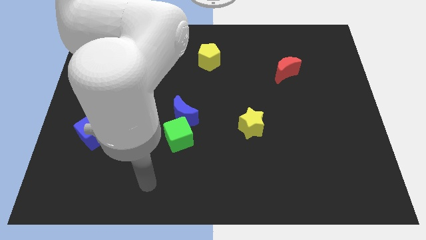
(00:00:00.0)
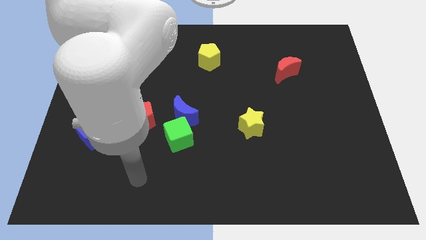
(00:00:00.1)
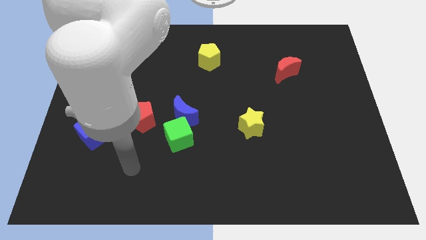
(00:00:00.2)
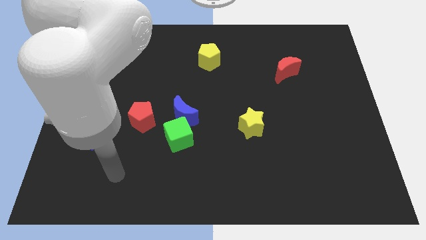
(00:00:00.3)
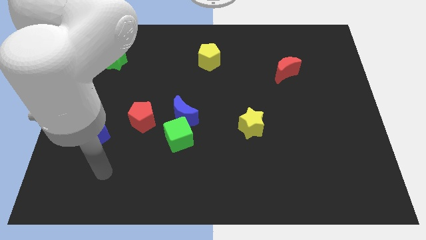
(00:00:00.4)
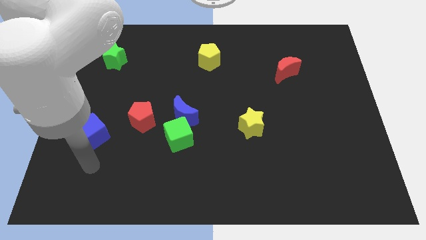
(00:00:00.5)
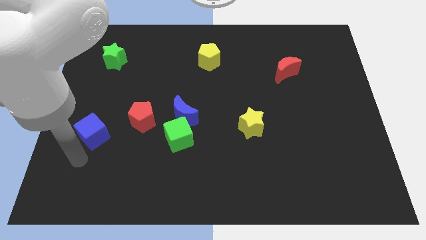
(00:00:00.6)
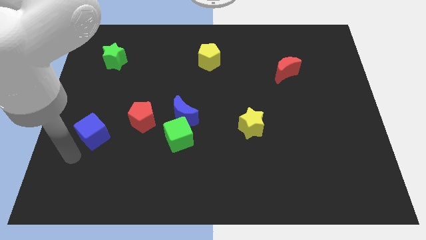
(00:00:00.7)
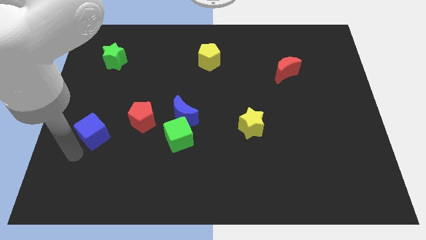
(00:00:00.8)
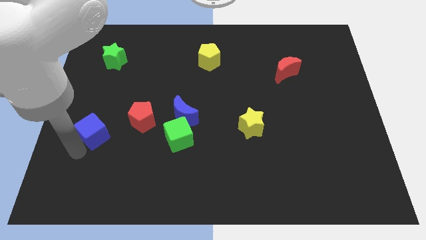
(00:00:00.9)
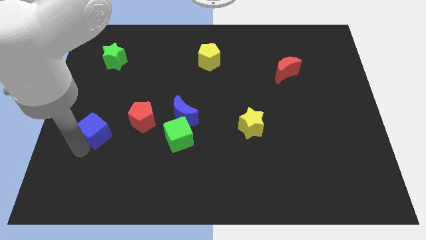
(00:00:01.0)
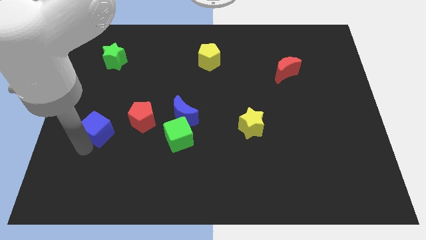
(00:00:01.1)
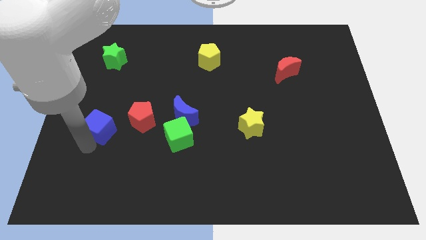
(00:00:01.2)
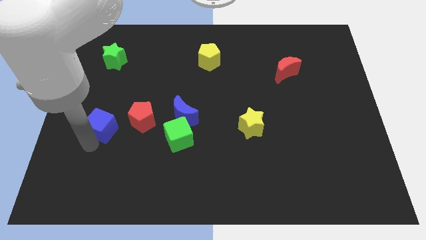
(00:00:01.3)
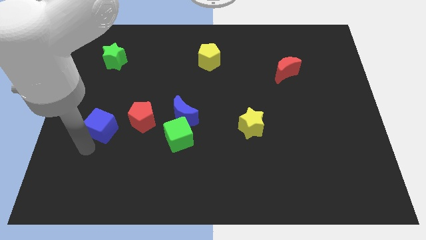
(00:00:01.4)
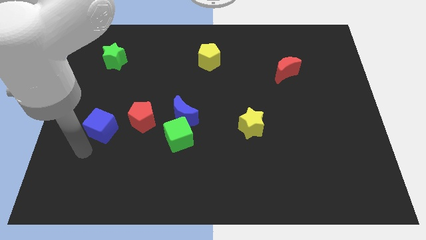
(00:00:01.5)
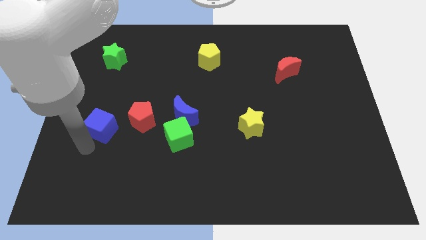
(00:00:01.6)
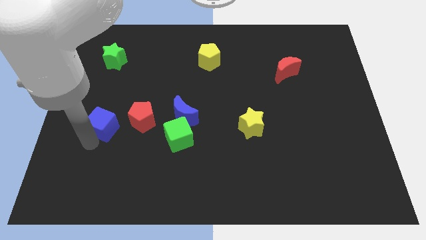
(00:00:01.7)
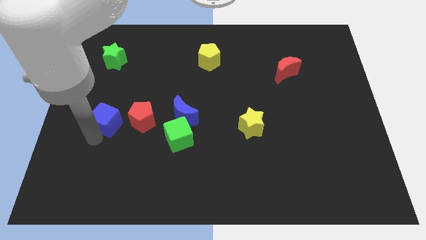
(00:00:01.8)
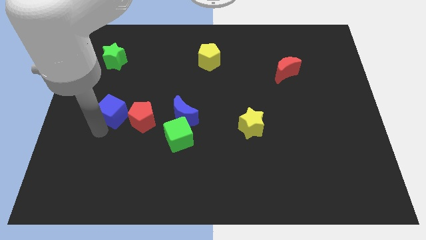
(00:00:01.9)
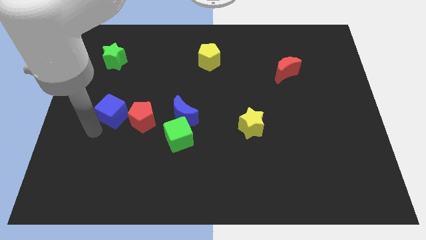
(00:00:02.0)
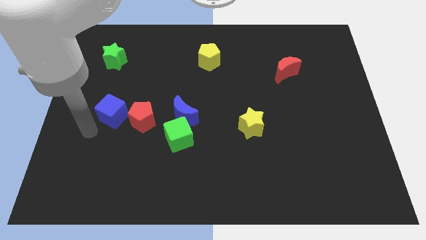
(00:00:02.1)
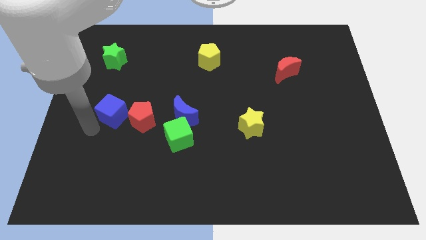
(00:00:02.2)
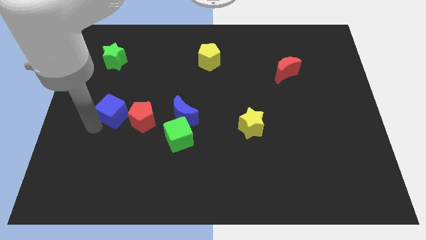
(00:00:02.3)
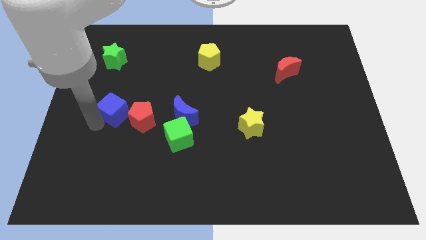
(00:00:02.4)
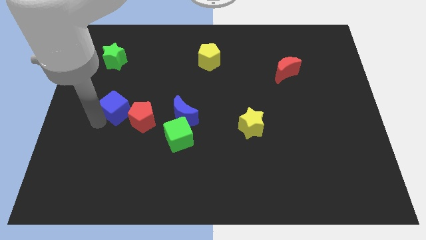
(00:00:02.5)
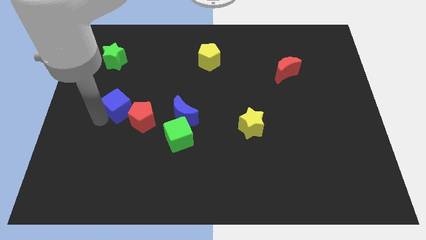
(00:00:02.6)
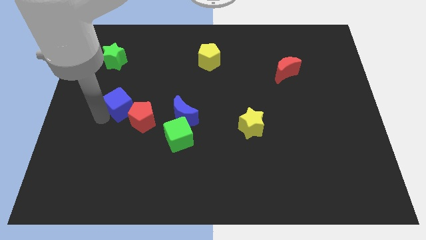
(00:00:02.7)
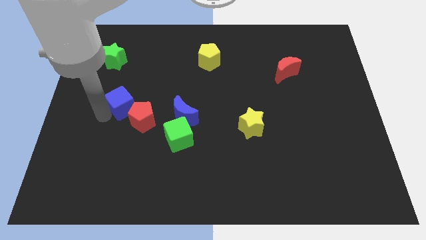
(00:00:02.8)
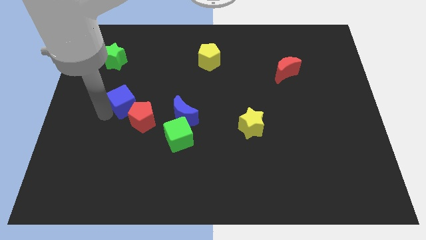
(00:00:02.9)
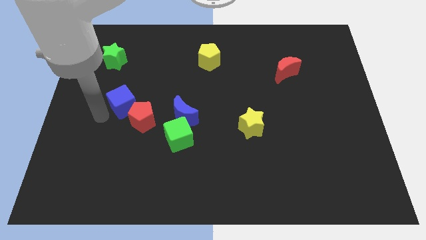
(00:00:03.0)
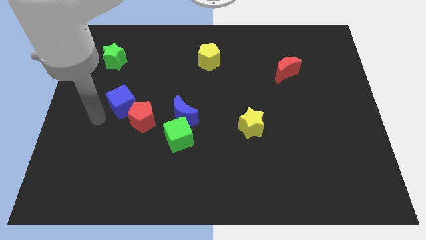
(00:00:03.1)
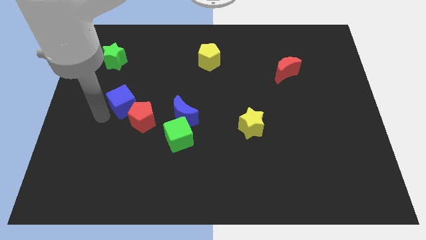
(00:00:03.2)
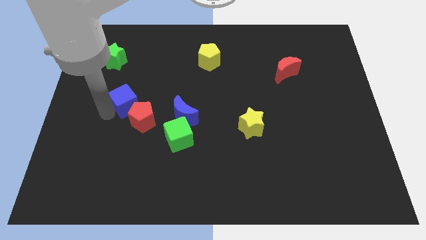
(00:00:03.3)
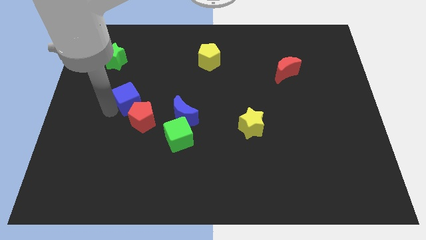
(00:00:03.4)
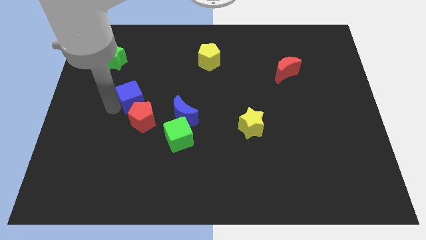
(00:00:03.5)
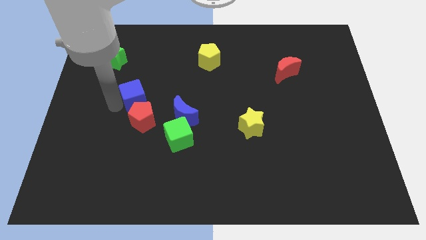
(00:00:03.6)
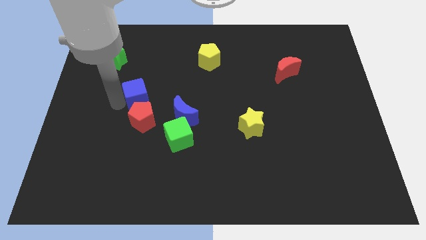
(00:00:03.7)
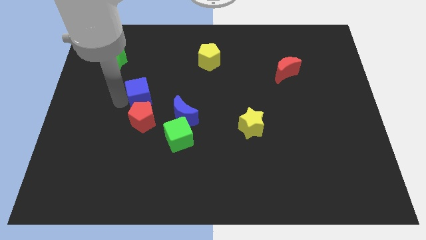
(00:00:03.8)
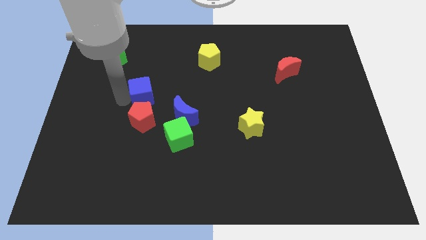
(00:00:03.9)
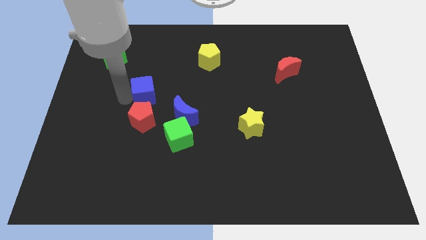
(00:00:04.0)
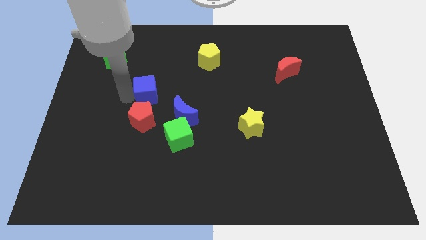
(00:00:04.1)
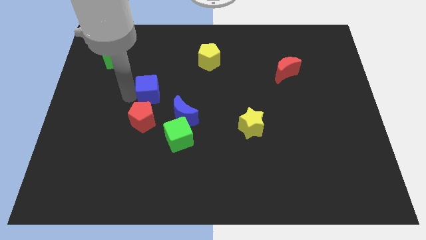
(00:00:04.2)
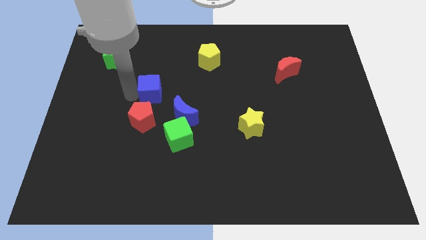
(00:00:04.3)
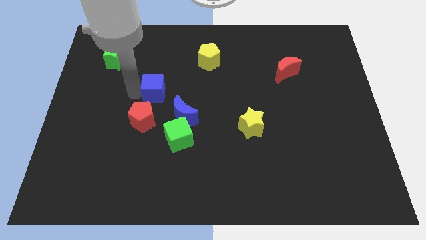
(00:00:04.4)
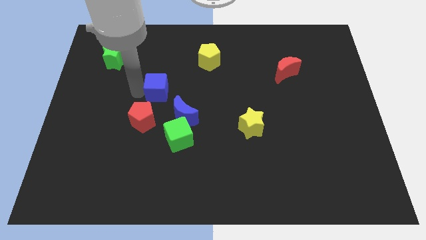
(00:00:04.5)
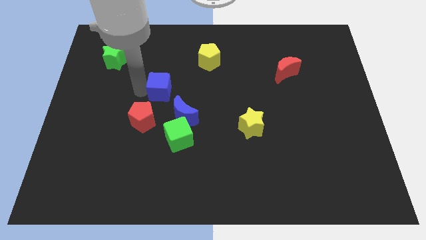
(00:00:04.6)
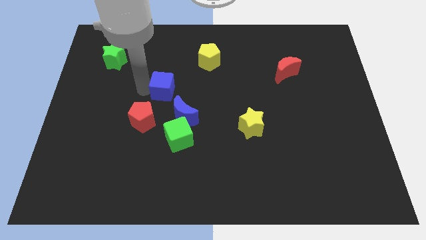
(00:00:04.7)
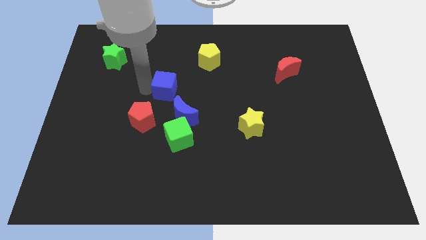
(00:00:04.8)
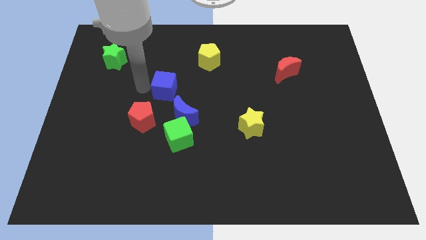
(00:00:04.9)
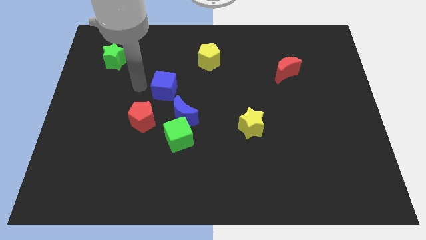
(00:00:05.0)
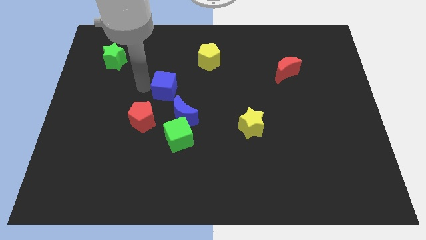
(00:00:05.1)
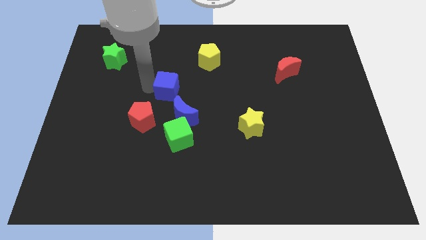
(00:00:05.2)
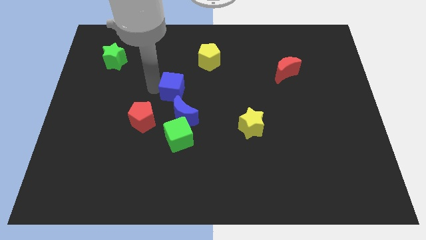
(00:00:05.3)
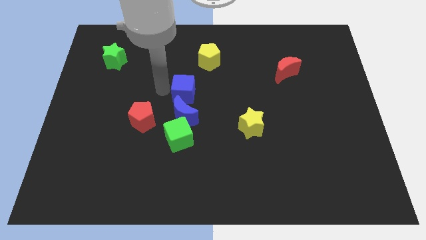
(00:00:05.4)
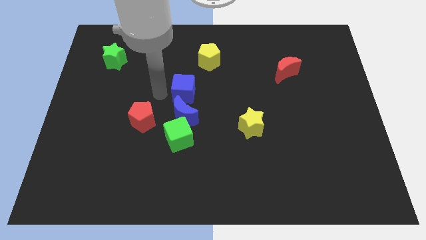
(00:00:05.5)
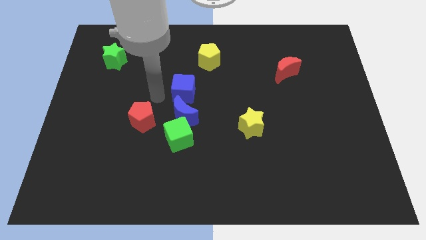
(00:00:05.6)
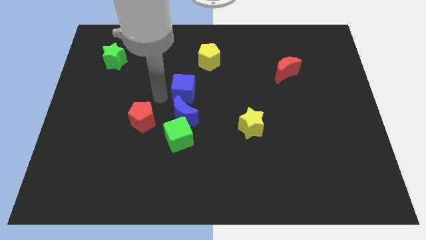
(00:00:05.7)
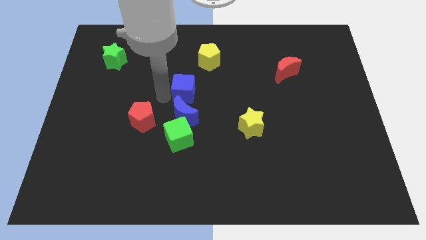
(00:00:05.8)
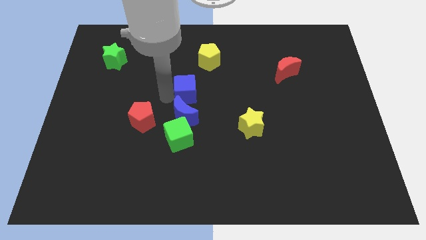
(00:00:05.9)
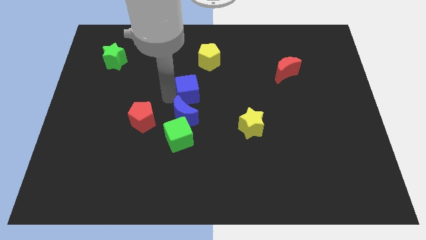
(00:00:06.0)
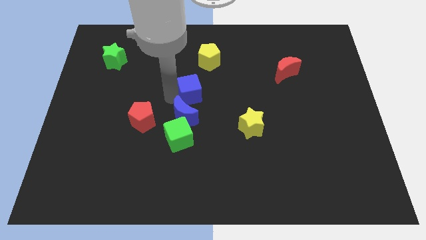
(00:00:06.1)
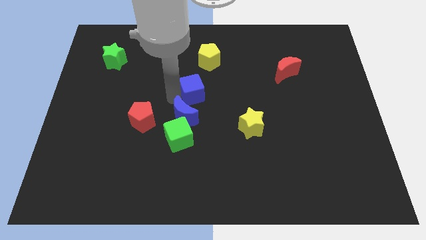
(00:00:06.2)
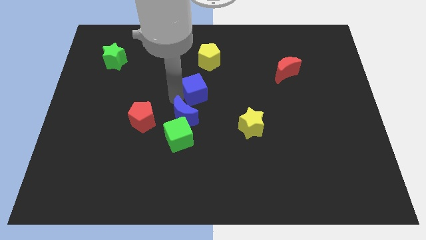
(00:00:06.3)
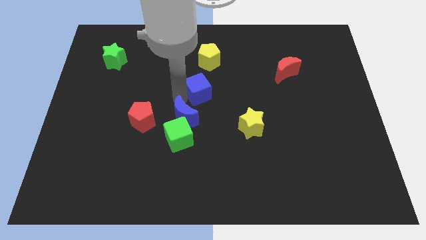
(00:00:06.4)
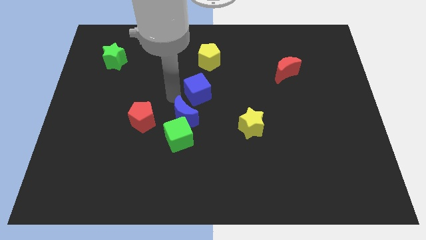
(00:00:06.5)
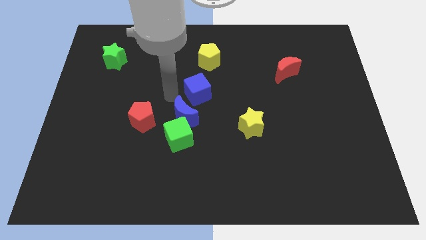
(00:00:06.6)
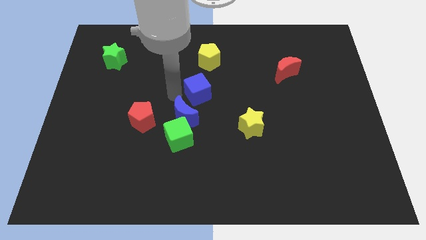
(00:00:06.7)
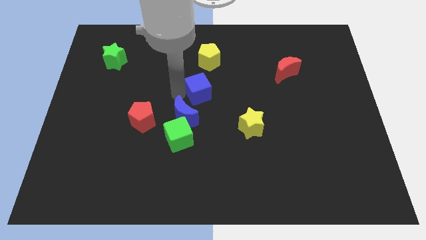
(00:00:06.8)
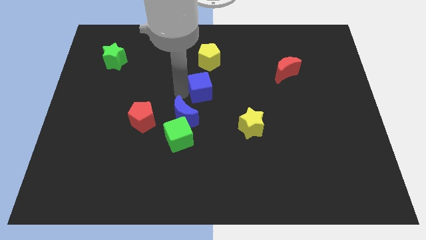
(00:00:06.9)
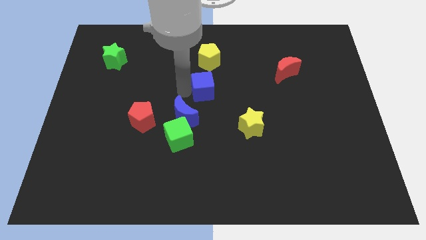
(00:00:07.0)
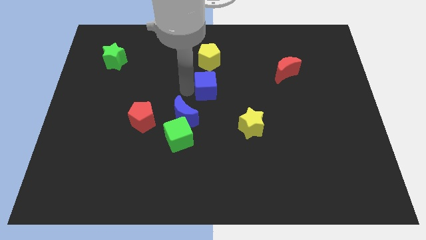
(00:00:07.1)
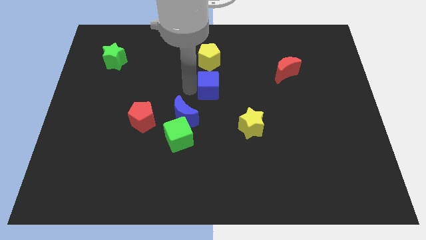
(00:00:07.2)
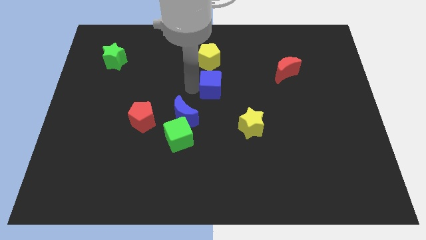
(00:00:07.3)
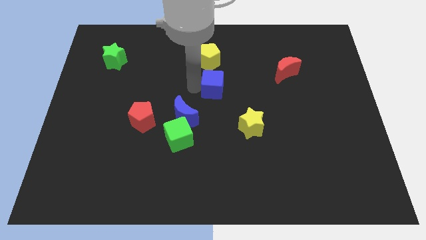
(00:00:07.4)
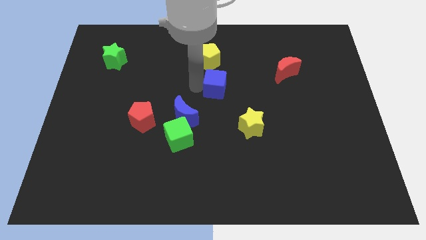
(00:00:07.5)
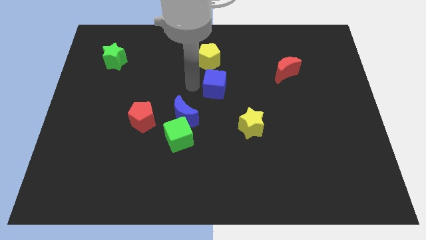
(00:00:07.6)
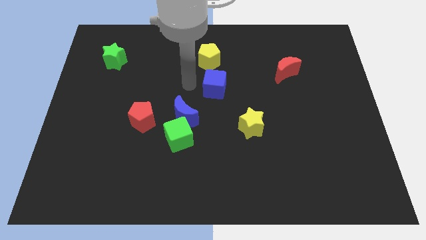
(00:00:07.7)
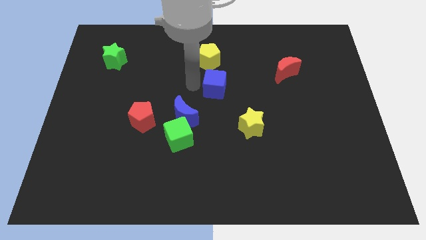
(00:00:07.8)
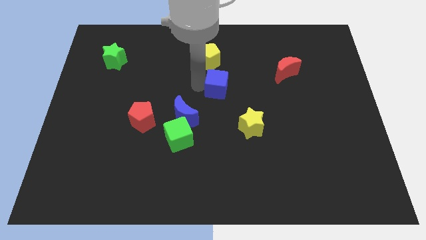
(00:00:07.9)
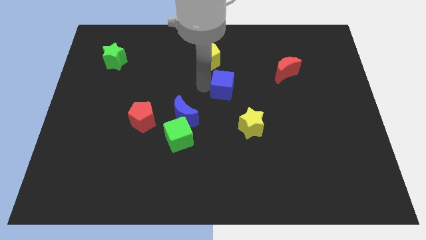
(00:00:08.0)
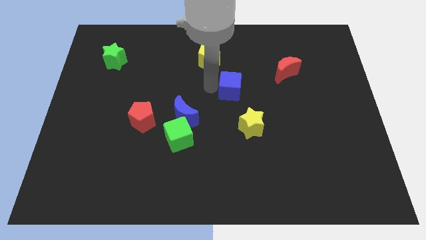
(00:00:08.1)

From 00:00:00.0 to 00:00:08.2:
push the blue cube to the top of the yellow star
